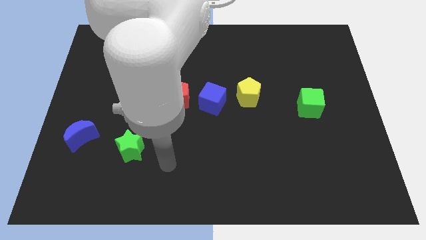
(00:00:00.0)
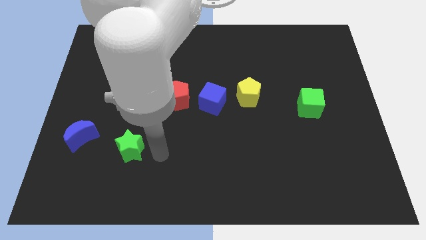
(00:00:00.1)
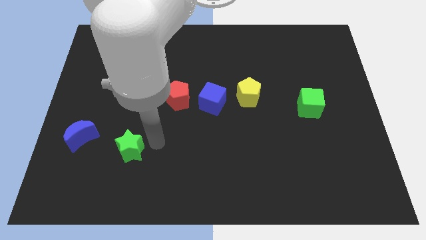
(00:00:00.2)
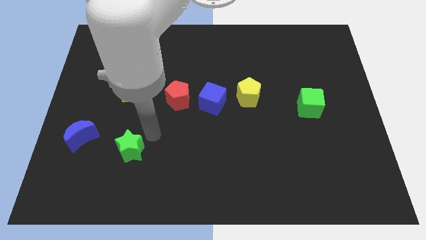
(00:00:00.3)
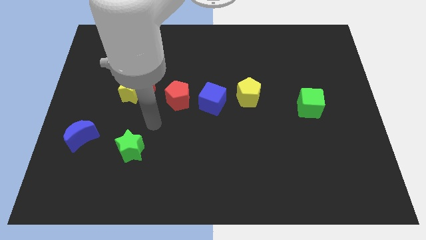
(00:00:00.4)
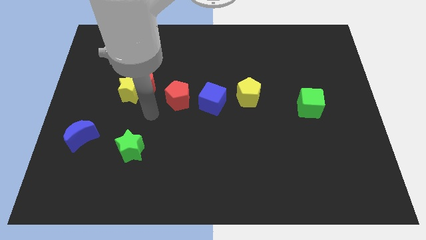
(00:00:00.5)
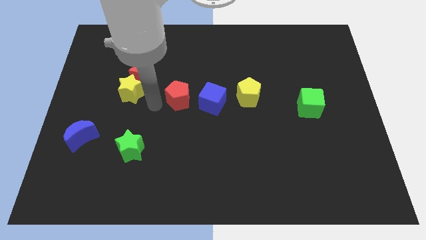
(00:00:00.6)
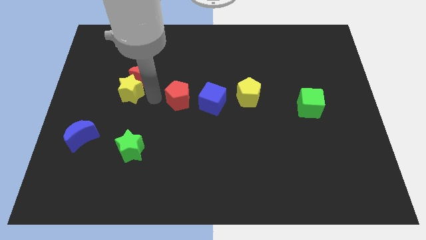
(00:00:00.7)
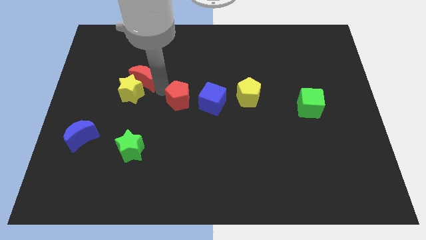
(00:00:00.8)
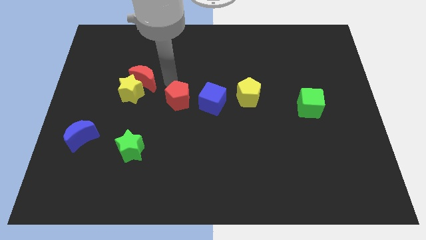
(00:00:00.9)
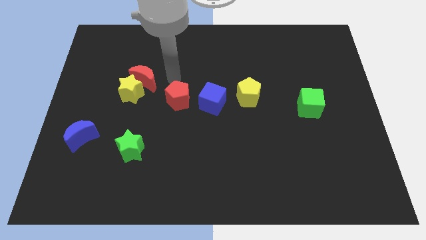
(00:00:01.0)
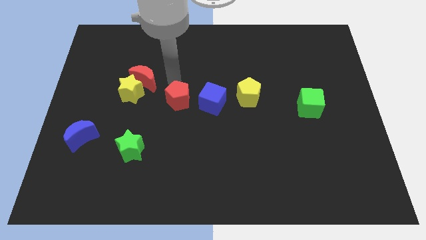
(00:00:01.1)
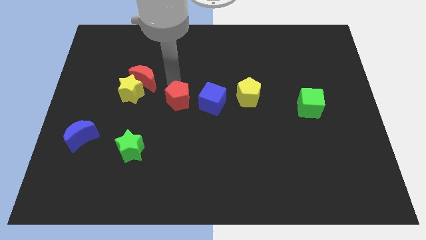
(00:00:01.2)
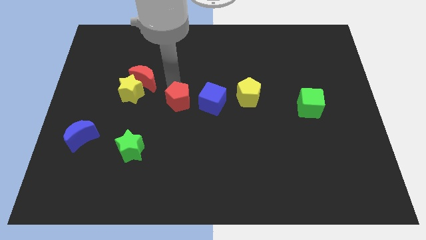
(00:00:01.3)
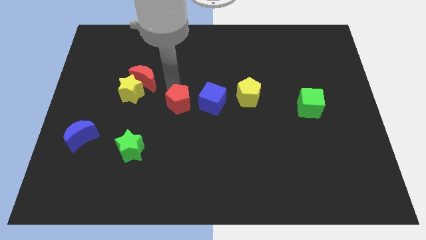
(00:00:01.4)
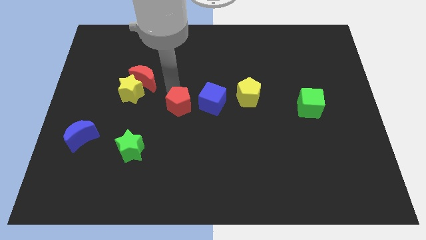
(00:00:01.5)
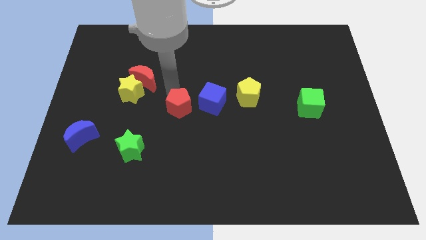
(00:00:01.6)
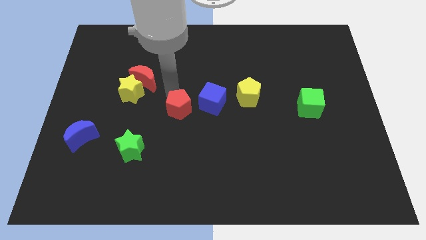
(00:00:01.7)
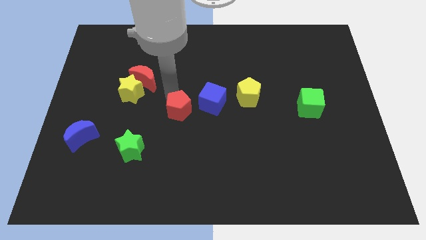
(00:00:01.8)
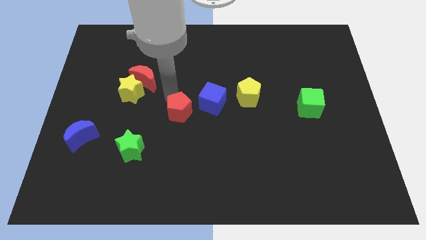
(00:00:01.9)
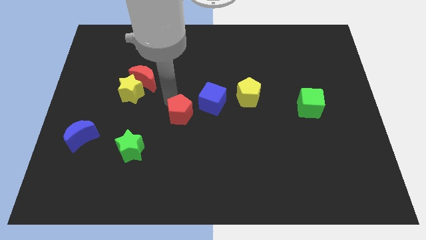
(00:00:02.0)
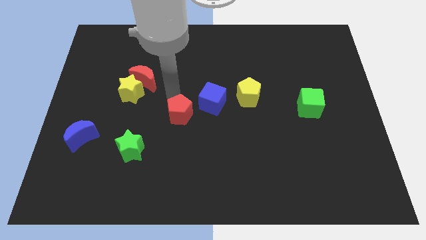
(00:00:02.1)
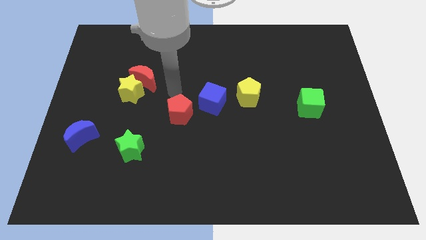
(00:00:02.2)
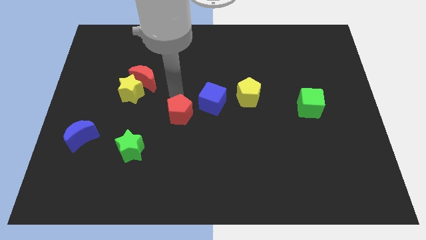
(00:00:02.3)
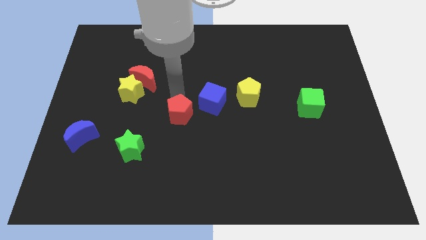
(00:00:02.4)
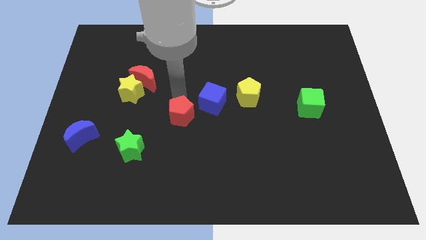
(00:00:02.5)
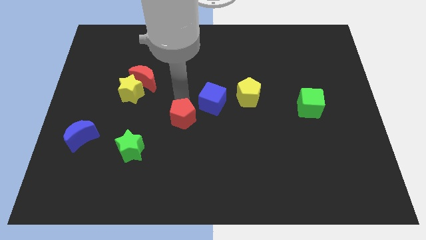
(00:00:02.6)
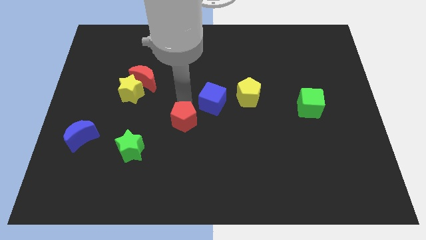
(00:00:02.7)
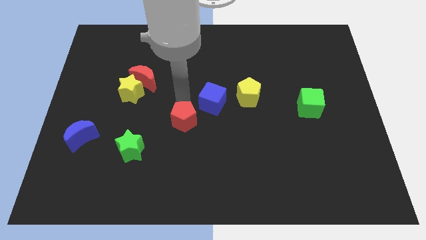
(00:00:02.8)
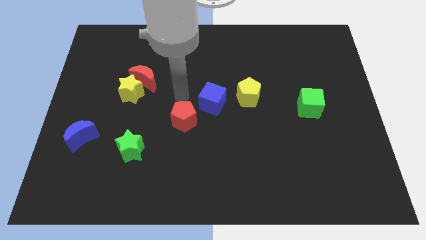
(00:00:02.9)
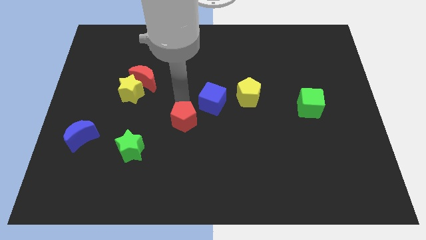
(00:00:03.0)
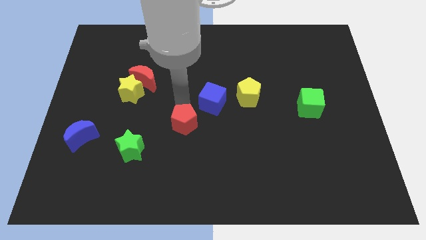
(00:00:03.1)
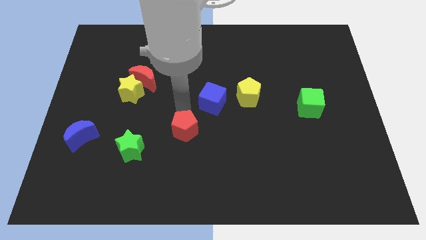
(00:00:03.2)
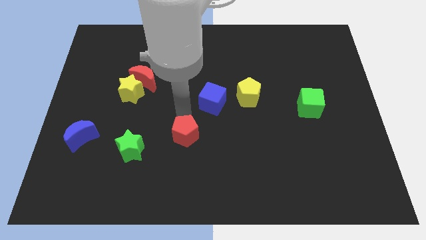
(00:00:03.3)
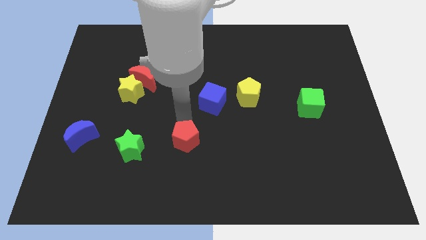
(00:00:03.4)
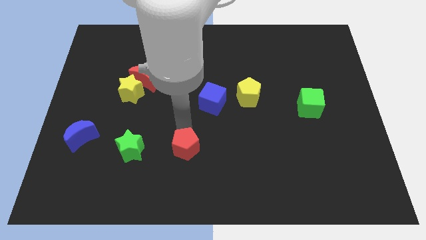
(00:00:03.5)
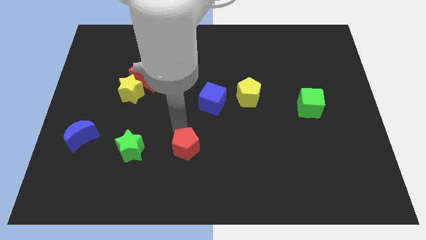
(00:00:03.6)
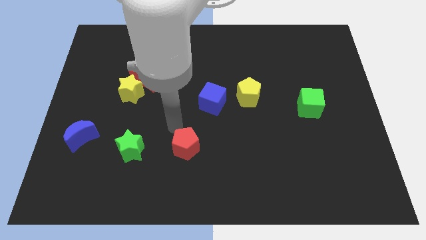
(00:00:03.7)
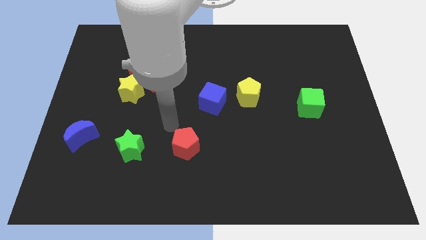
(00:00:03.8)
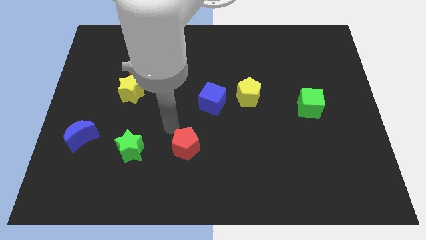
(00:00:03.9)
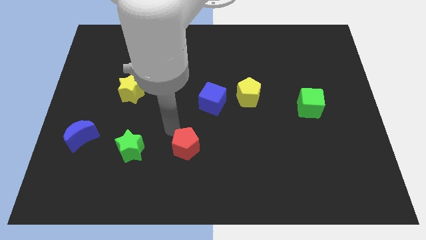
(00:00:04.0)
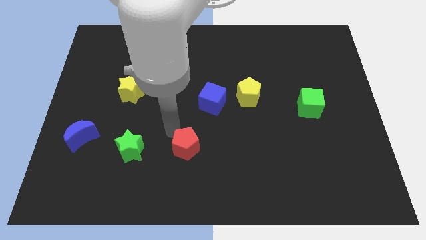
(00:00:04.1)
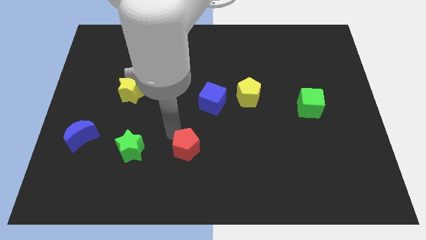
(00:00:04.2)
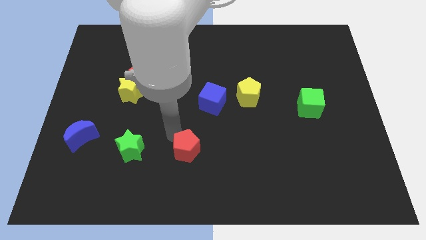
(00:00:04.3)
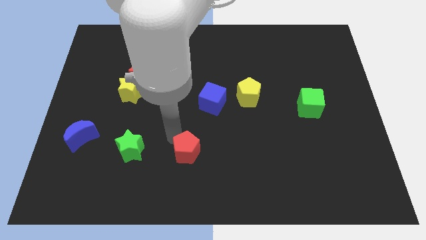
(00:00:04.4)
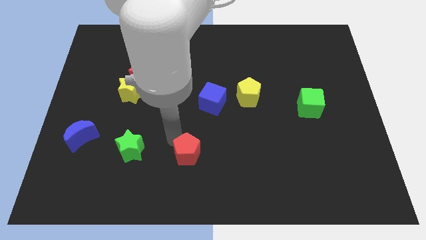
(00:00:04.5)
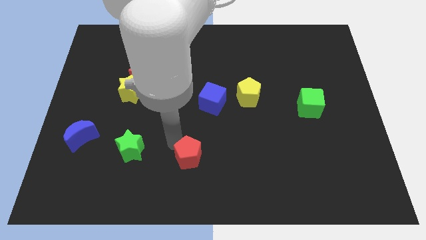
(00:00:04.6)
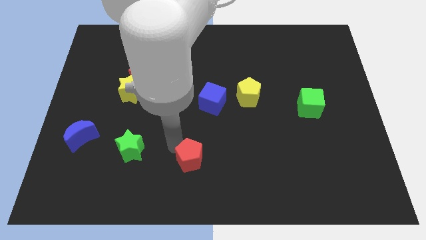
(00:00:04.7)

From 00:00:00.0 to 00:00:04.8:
slide the red pentagon to the bottom

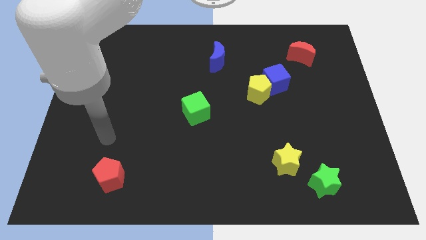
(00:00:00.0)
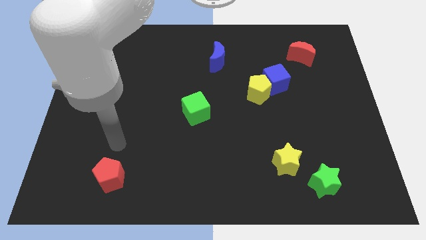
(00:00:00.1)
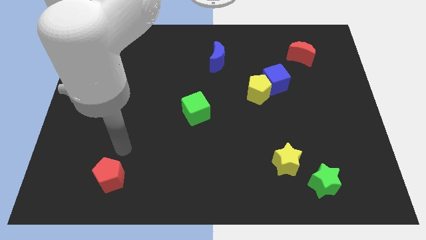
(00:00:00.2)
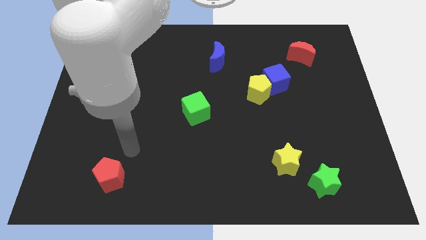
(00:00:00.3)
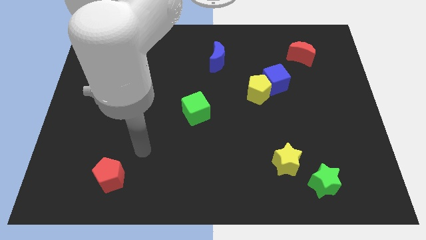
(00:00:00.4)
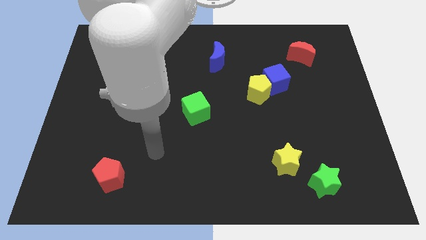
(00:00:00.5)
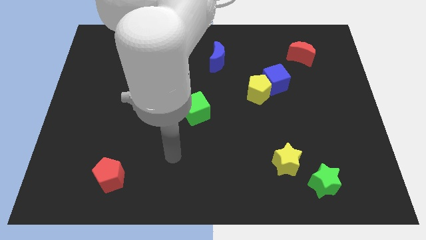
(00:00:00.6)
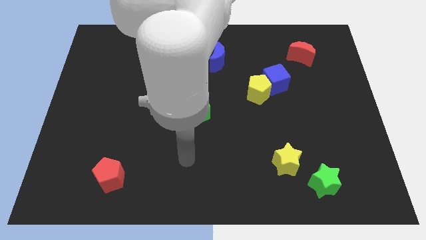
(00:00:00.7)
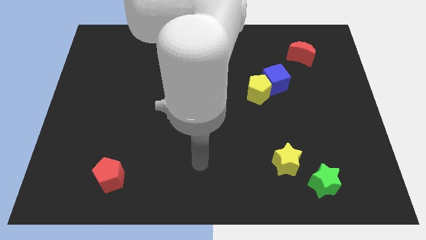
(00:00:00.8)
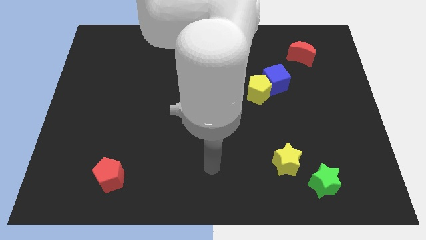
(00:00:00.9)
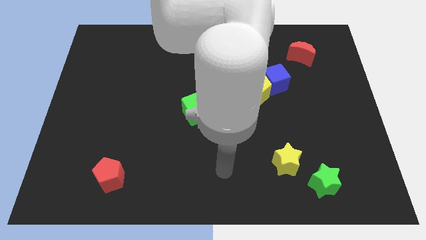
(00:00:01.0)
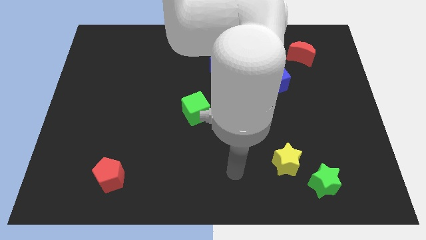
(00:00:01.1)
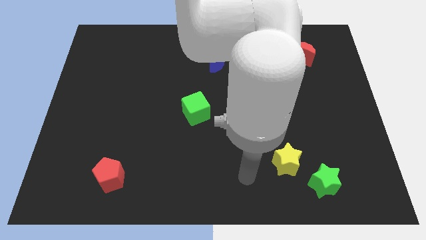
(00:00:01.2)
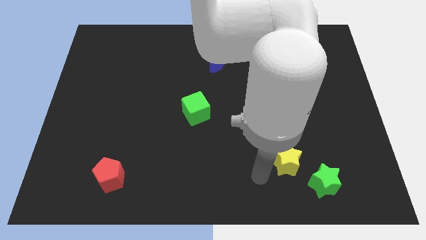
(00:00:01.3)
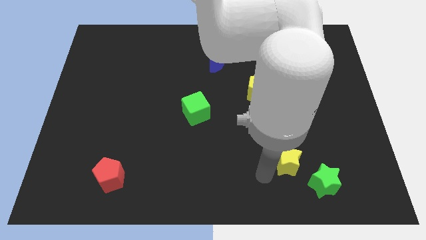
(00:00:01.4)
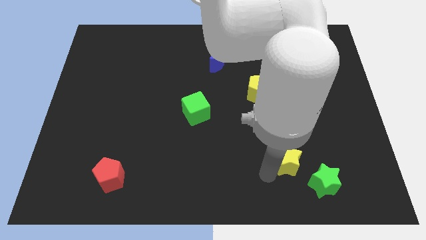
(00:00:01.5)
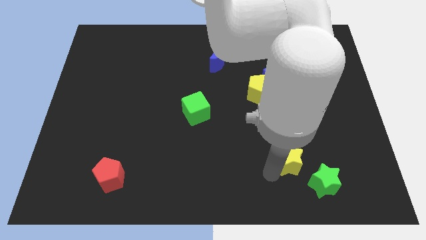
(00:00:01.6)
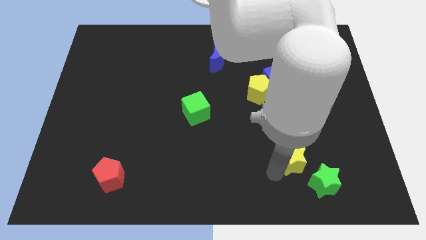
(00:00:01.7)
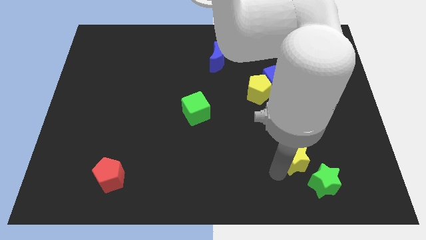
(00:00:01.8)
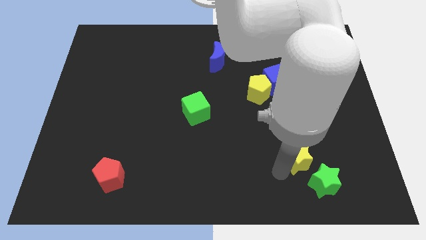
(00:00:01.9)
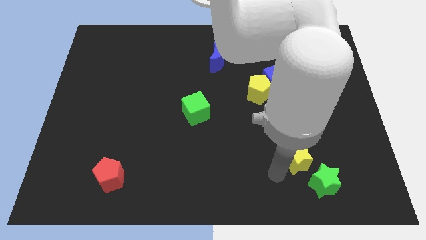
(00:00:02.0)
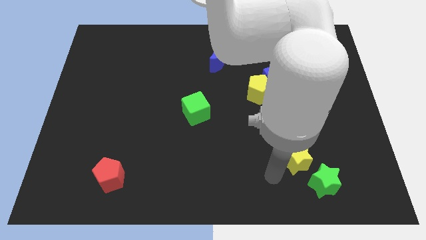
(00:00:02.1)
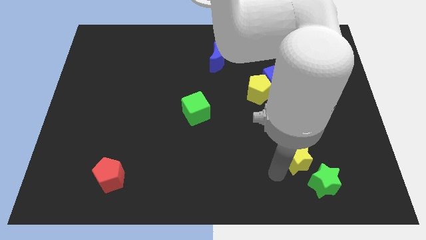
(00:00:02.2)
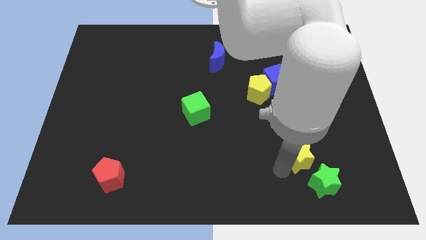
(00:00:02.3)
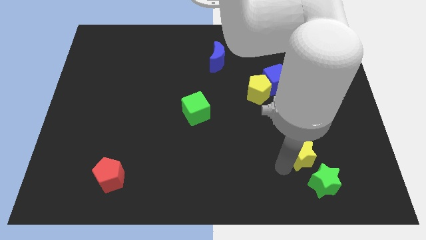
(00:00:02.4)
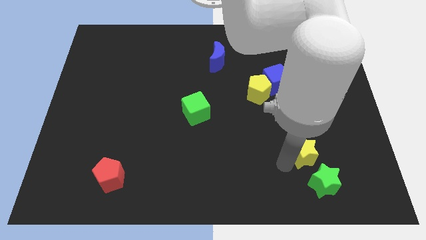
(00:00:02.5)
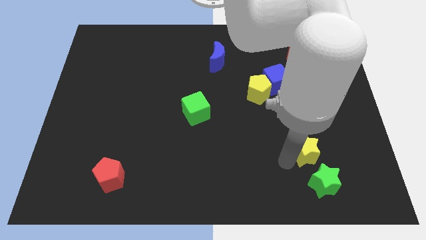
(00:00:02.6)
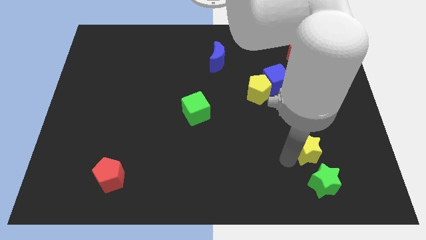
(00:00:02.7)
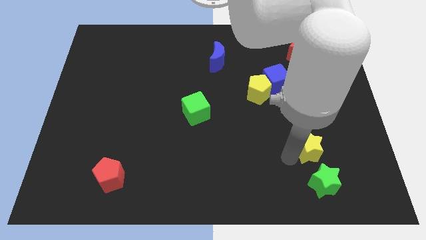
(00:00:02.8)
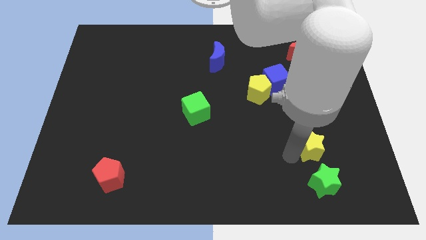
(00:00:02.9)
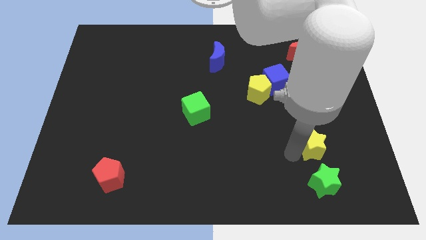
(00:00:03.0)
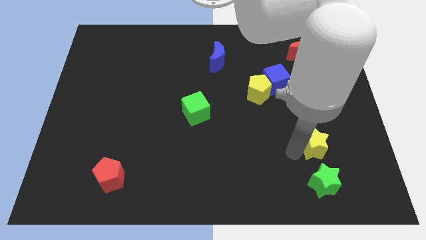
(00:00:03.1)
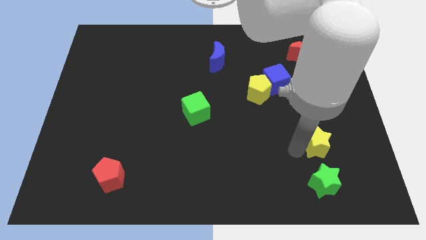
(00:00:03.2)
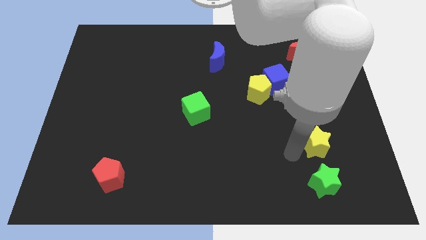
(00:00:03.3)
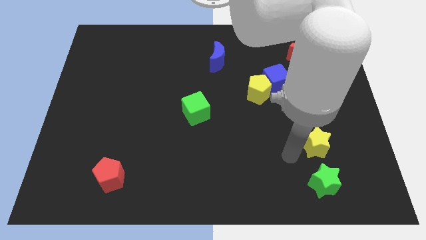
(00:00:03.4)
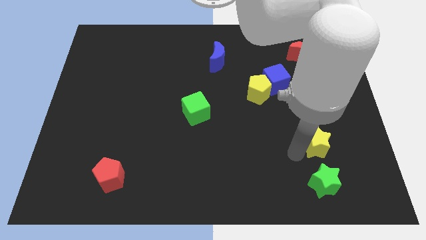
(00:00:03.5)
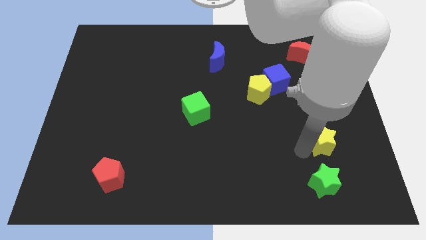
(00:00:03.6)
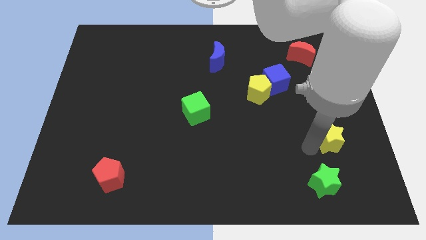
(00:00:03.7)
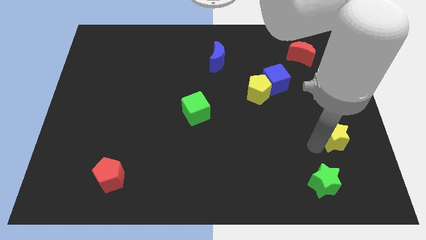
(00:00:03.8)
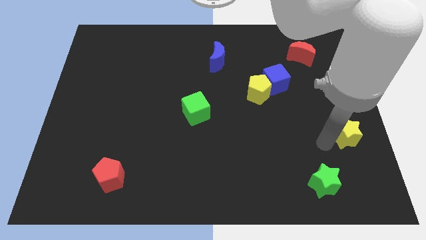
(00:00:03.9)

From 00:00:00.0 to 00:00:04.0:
push the yellow star to the center right
